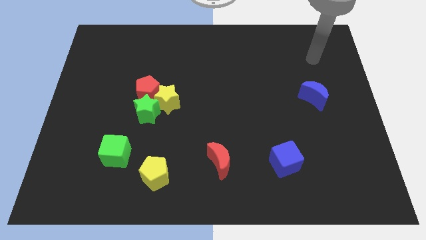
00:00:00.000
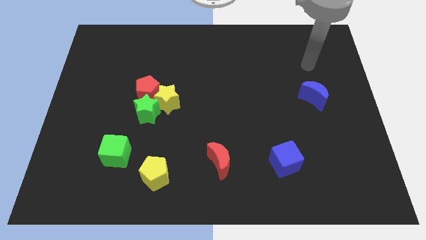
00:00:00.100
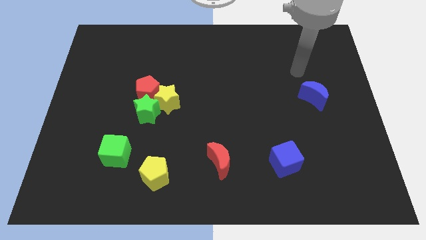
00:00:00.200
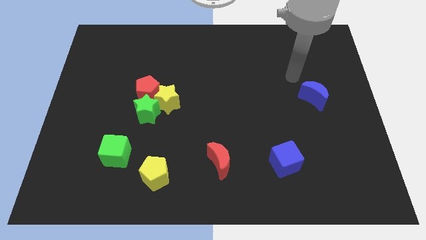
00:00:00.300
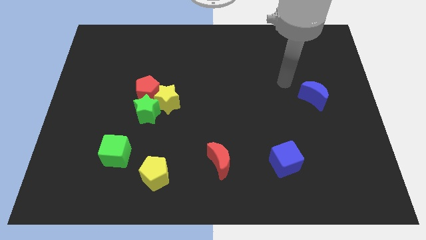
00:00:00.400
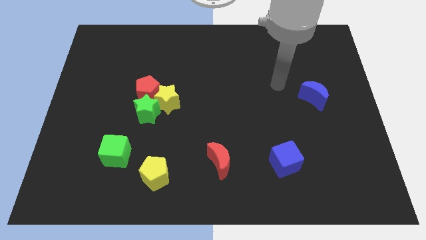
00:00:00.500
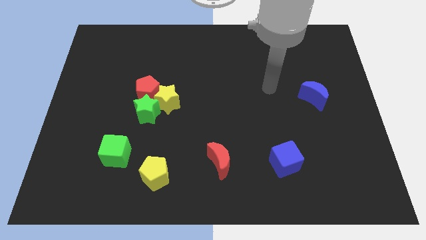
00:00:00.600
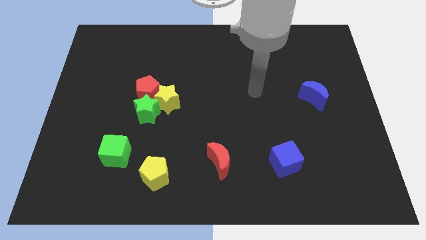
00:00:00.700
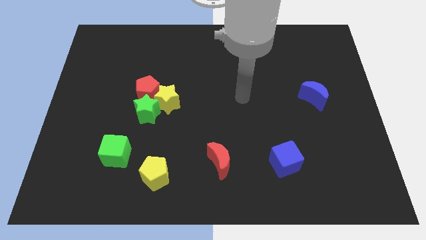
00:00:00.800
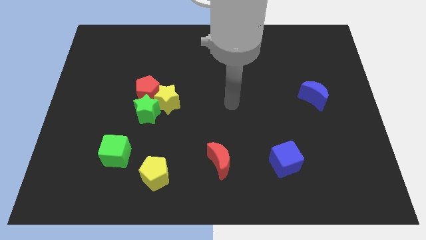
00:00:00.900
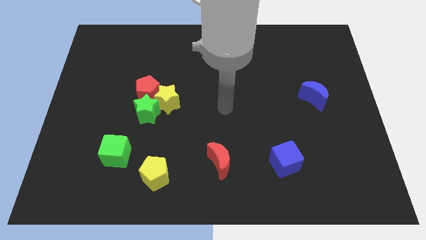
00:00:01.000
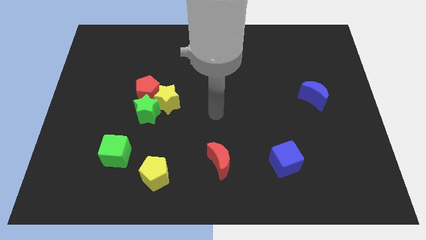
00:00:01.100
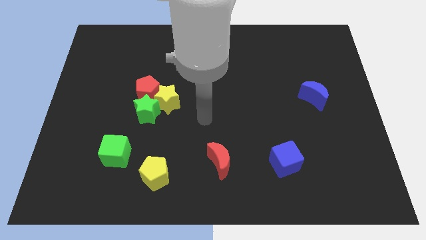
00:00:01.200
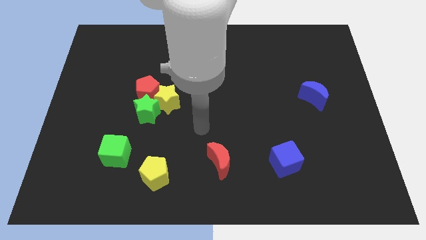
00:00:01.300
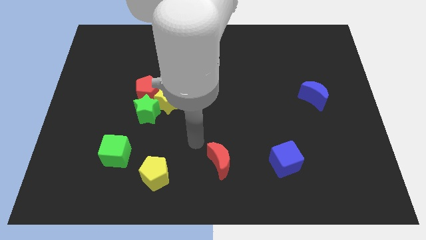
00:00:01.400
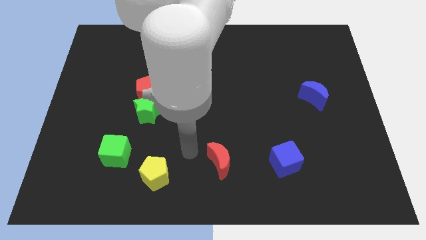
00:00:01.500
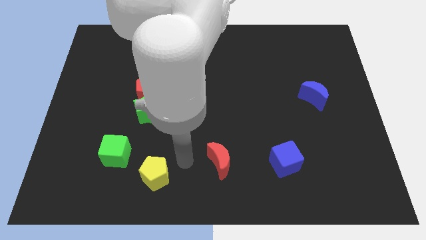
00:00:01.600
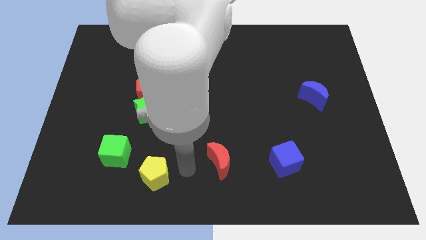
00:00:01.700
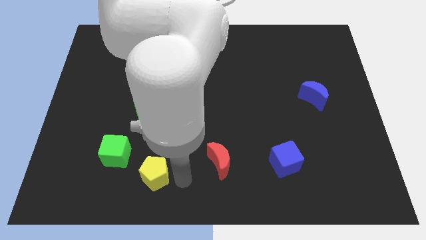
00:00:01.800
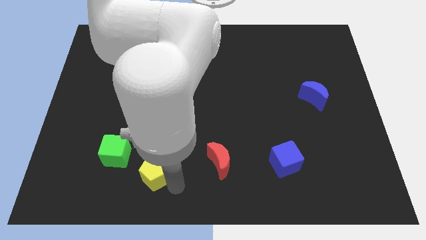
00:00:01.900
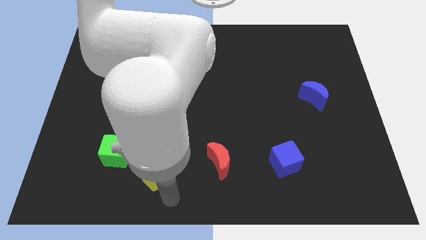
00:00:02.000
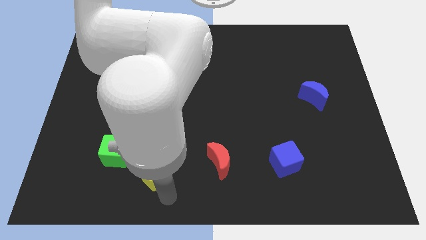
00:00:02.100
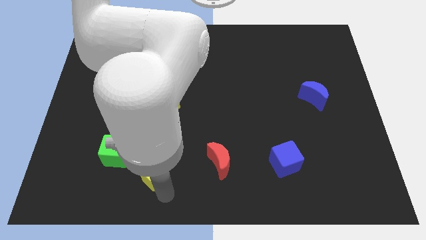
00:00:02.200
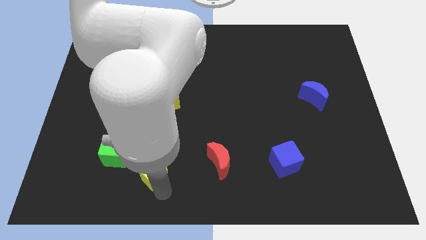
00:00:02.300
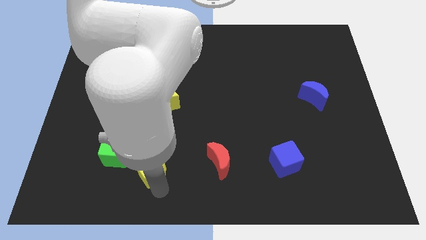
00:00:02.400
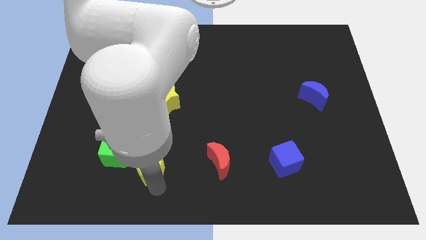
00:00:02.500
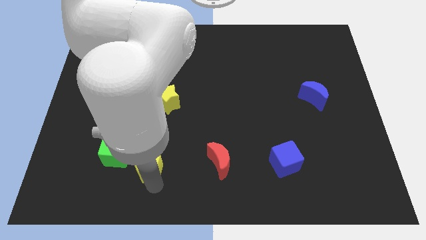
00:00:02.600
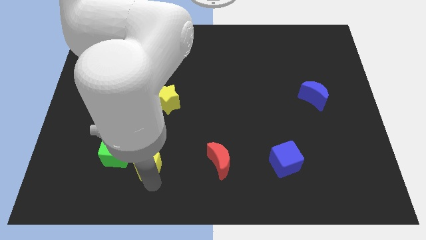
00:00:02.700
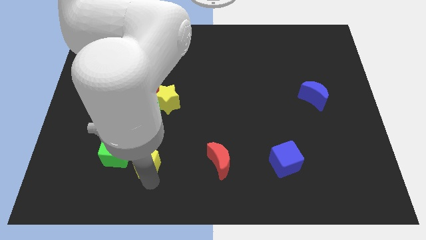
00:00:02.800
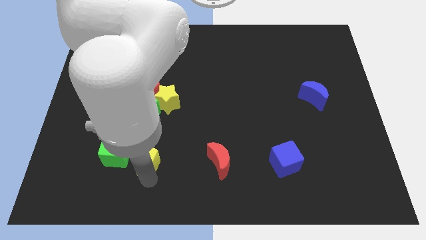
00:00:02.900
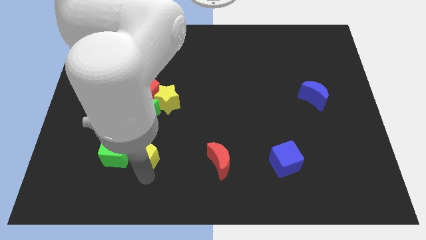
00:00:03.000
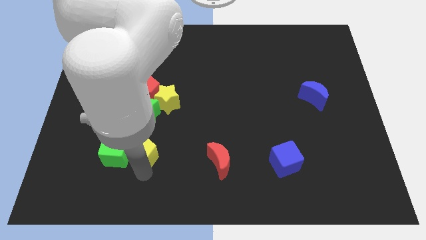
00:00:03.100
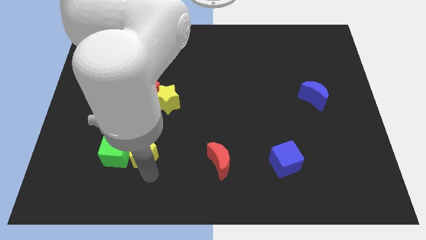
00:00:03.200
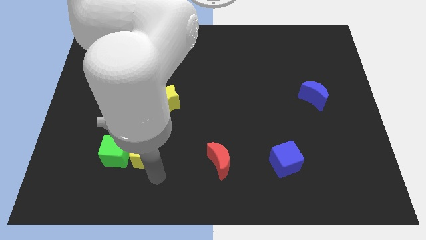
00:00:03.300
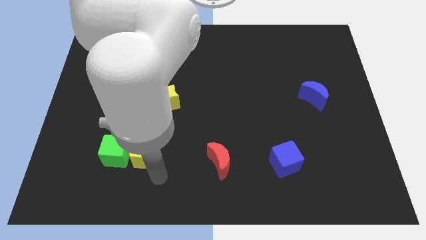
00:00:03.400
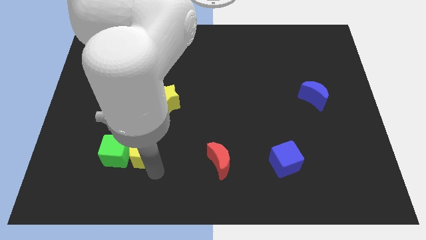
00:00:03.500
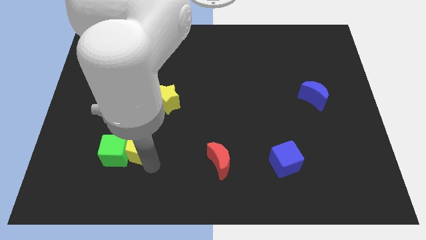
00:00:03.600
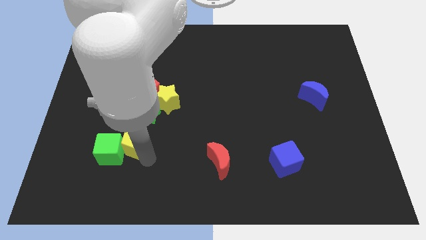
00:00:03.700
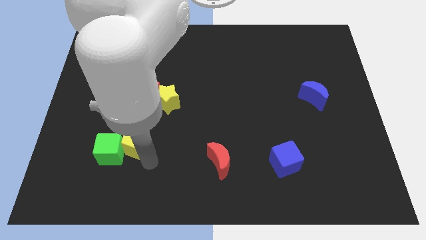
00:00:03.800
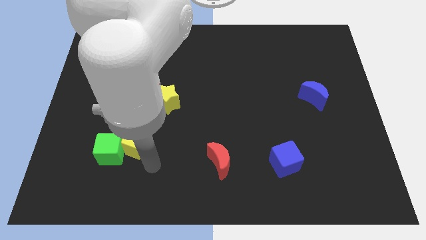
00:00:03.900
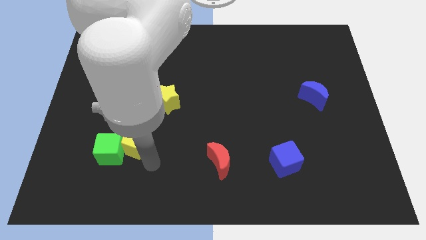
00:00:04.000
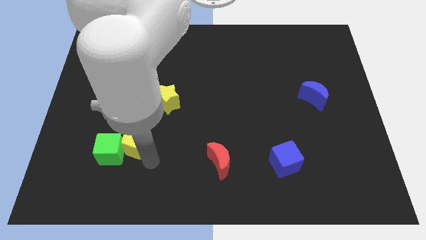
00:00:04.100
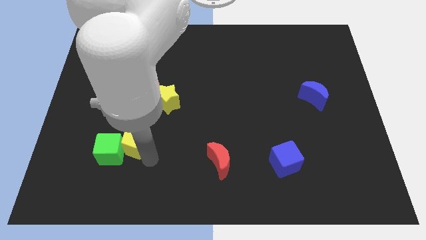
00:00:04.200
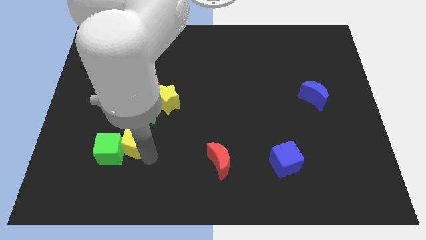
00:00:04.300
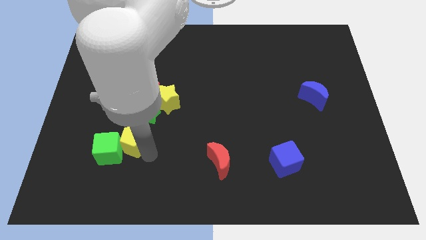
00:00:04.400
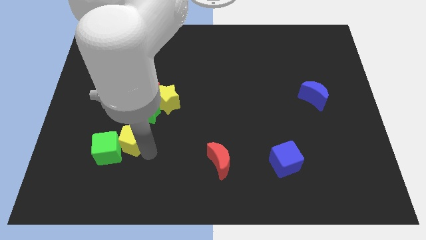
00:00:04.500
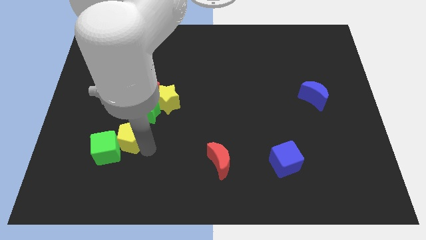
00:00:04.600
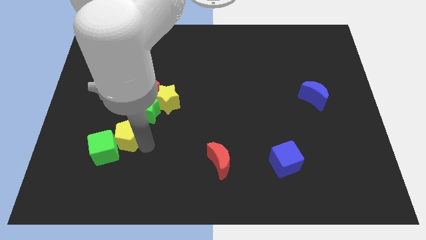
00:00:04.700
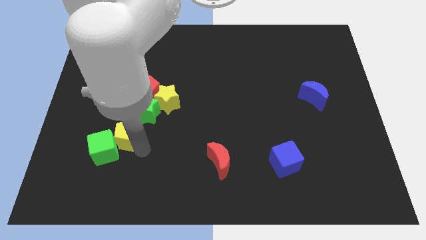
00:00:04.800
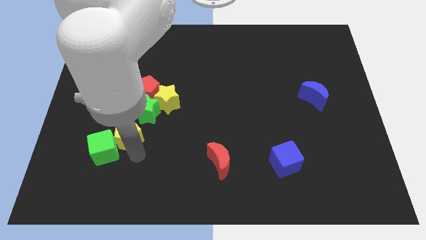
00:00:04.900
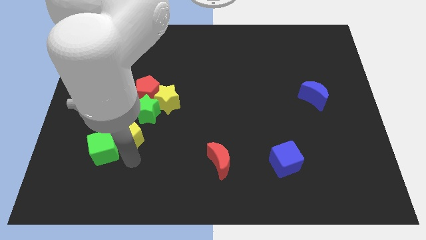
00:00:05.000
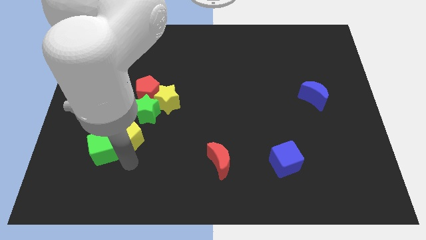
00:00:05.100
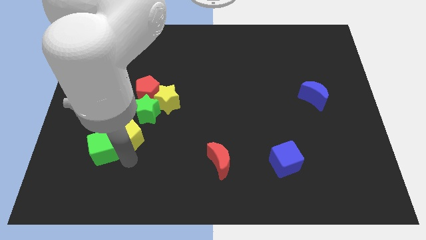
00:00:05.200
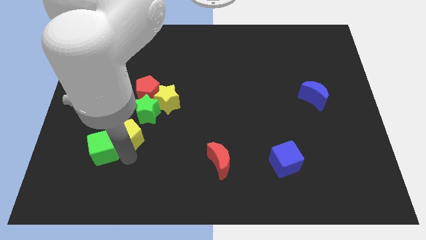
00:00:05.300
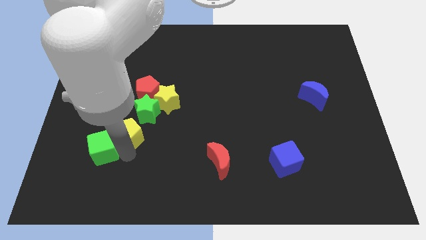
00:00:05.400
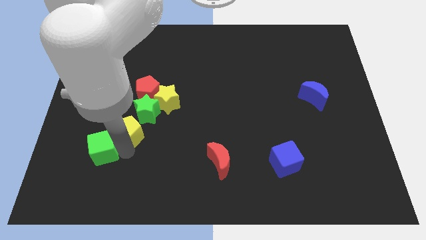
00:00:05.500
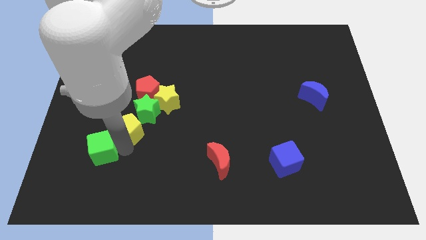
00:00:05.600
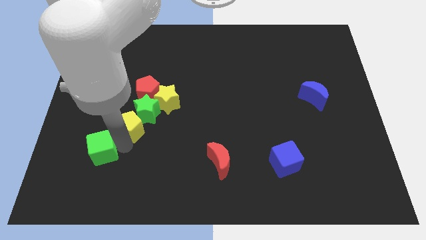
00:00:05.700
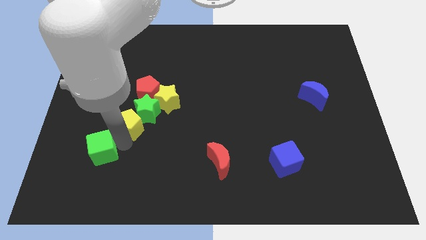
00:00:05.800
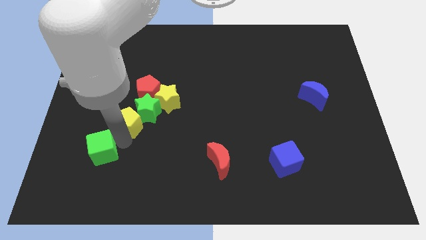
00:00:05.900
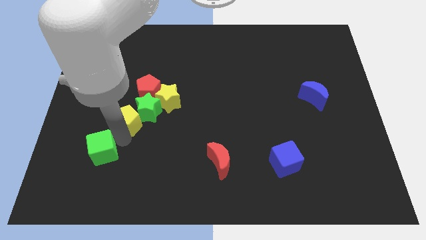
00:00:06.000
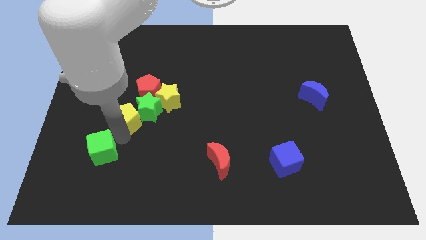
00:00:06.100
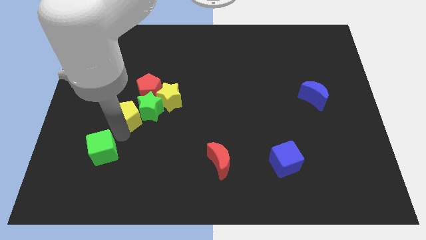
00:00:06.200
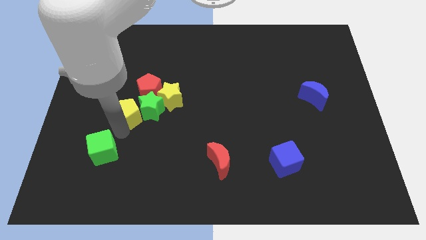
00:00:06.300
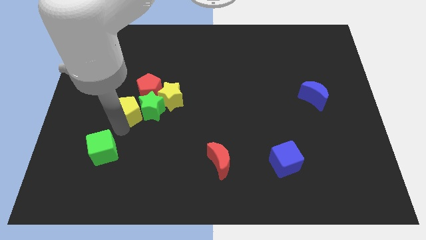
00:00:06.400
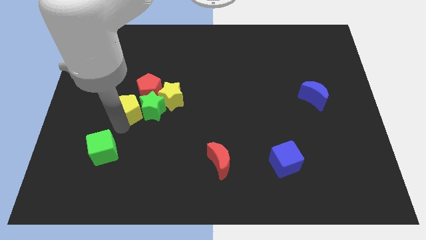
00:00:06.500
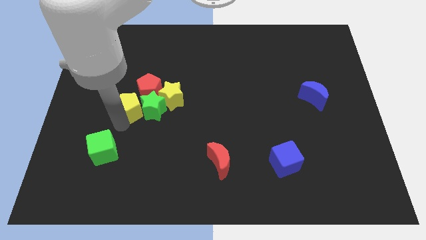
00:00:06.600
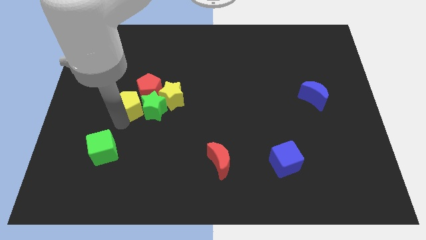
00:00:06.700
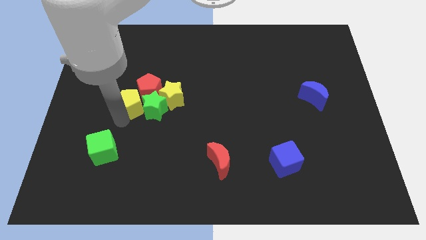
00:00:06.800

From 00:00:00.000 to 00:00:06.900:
move the yellow pentagon to the red pentagon
